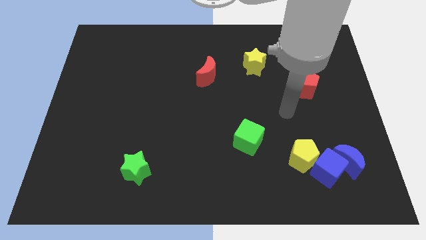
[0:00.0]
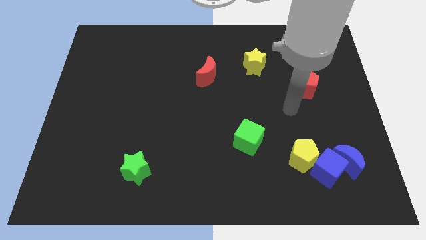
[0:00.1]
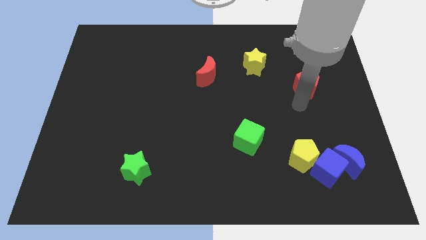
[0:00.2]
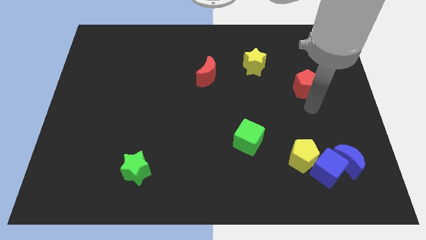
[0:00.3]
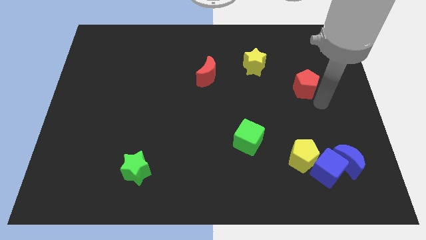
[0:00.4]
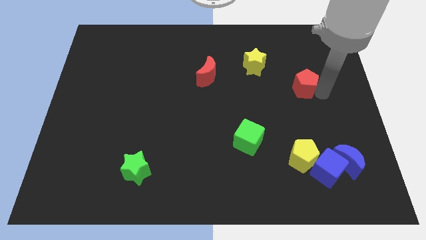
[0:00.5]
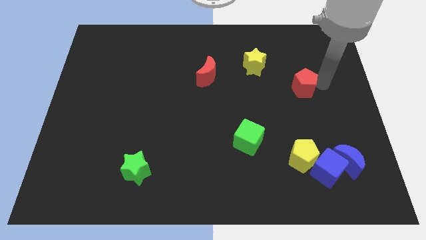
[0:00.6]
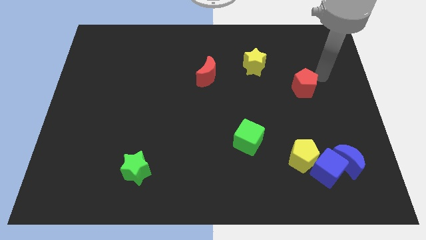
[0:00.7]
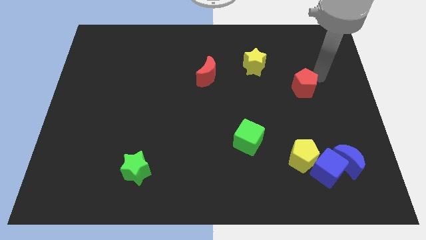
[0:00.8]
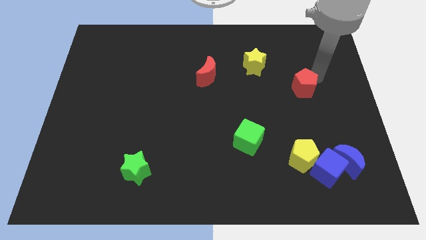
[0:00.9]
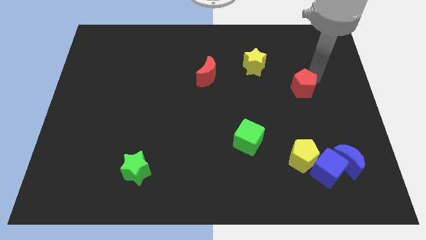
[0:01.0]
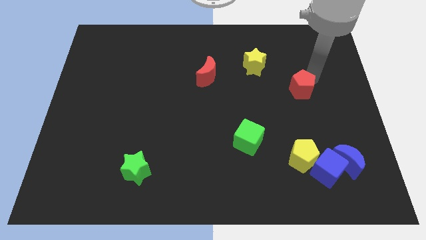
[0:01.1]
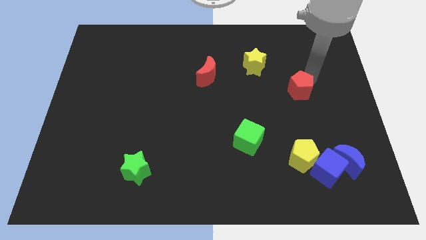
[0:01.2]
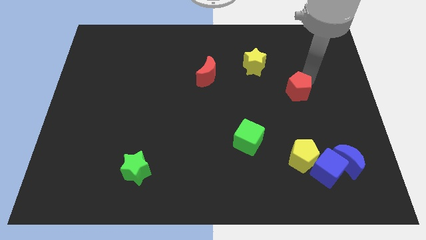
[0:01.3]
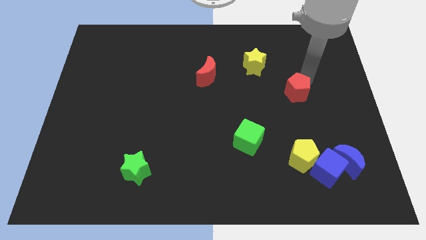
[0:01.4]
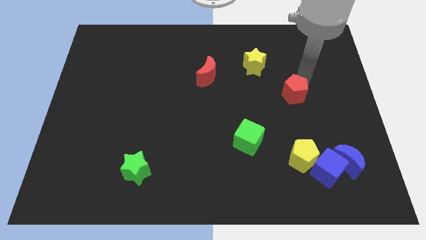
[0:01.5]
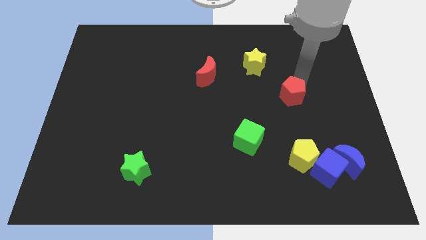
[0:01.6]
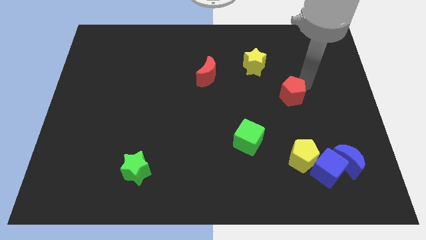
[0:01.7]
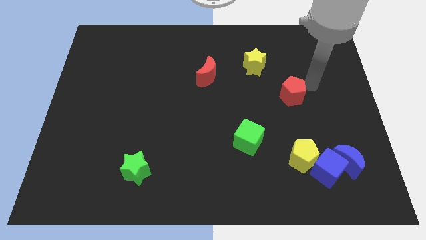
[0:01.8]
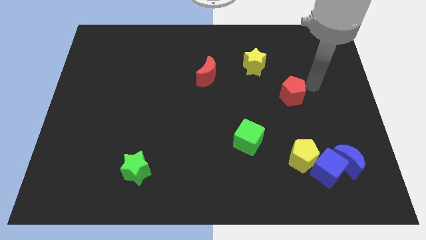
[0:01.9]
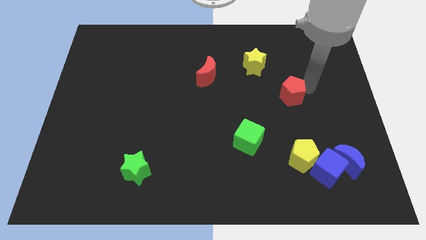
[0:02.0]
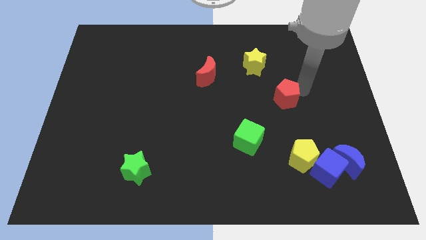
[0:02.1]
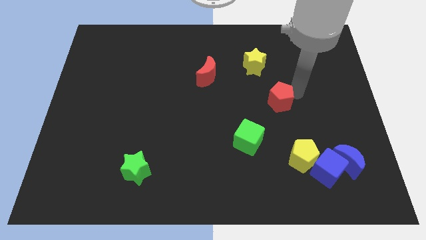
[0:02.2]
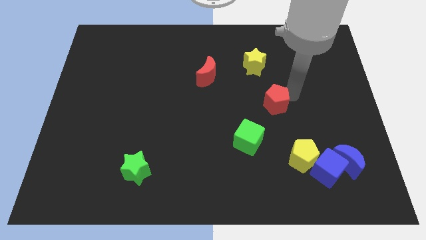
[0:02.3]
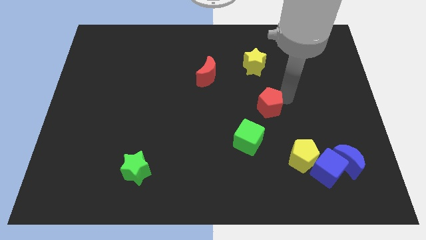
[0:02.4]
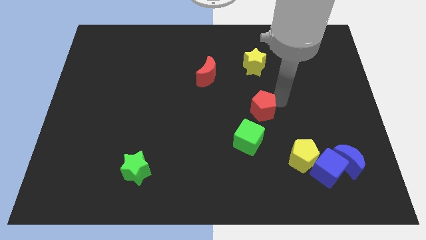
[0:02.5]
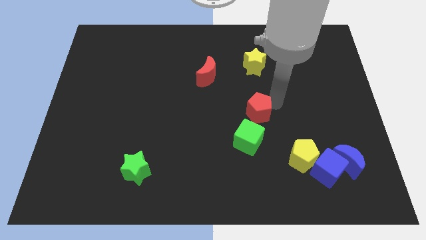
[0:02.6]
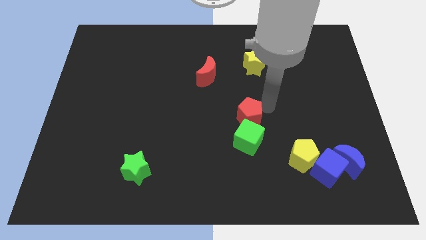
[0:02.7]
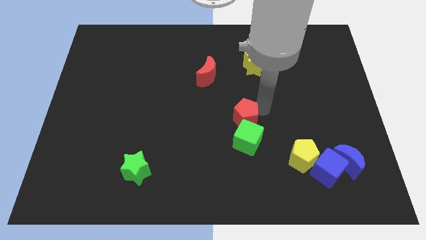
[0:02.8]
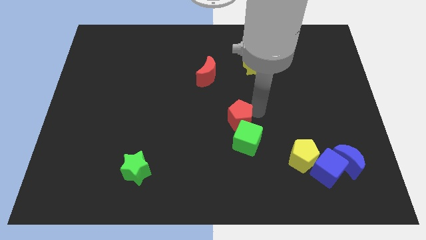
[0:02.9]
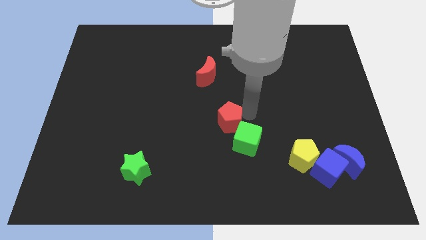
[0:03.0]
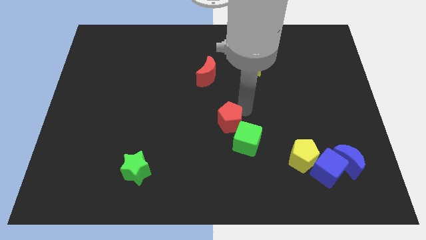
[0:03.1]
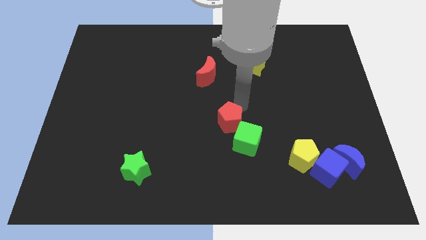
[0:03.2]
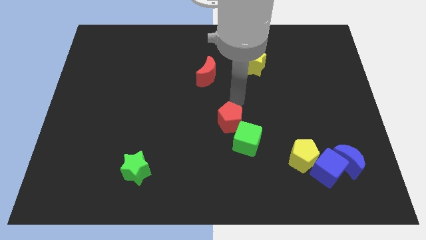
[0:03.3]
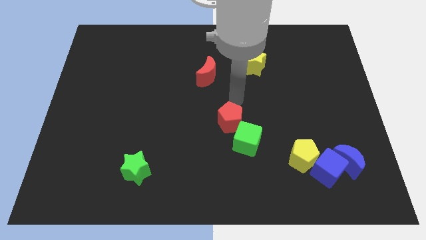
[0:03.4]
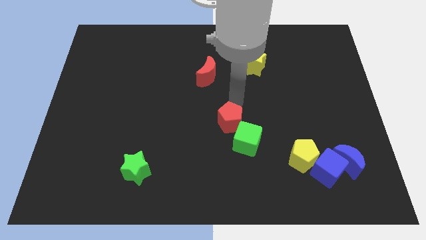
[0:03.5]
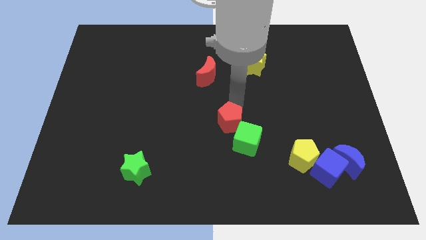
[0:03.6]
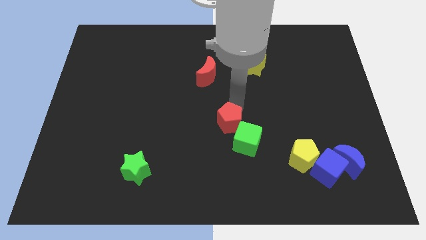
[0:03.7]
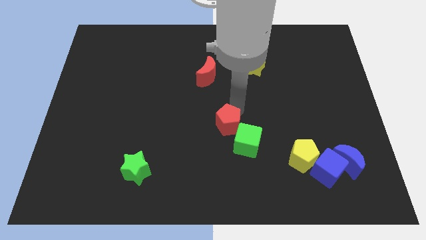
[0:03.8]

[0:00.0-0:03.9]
move the red pentagon downwards and to the left diagonally

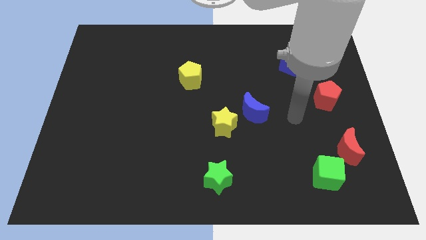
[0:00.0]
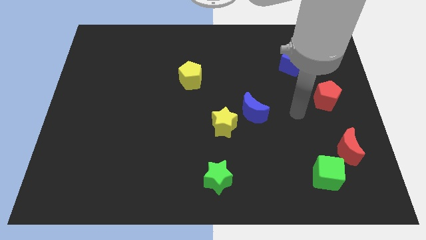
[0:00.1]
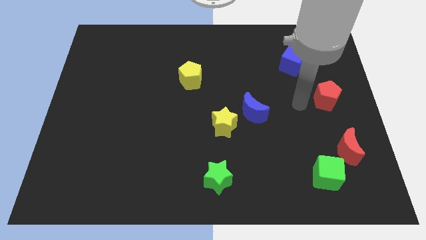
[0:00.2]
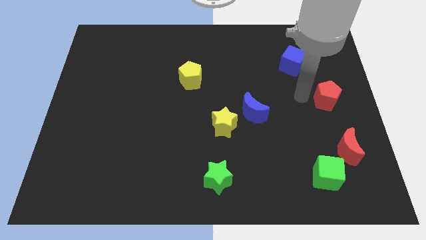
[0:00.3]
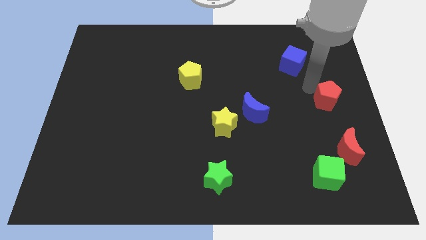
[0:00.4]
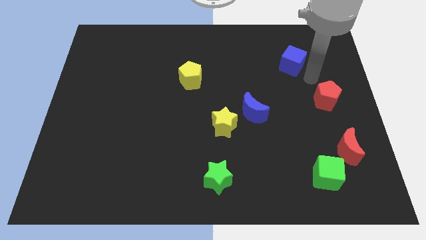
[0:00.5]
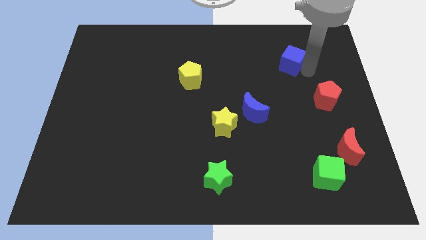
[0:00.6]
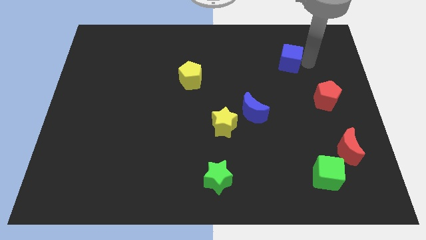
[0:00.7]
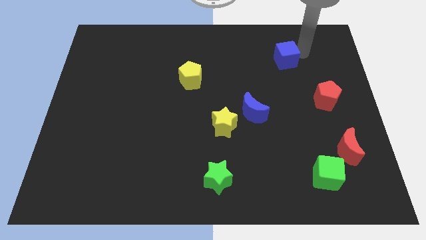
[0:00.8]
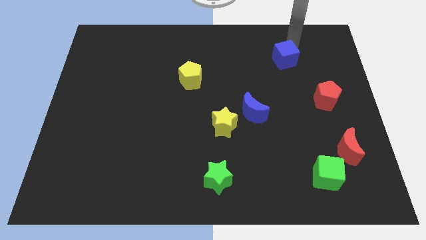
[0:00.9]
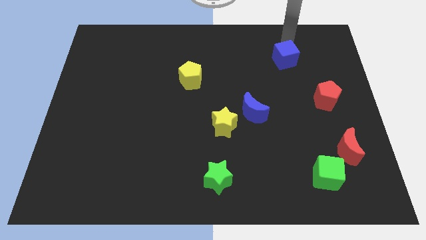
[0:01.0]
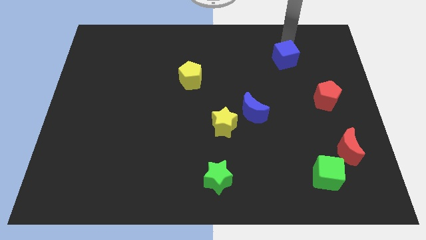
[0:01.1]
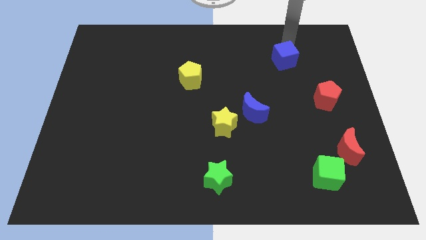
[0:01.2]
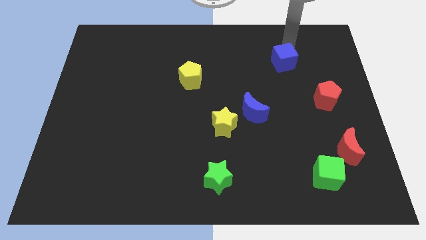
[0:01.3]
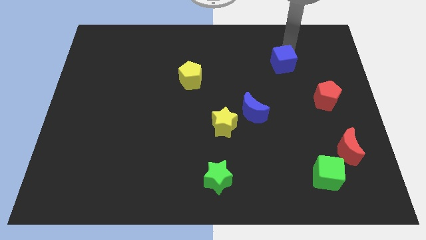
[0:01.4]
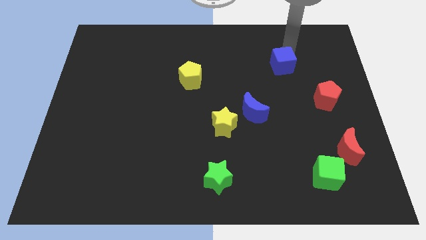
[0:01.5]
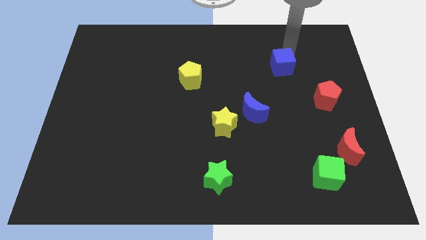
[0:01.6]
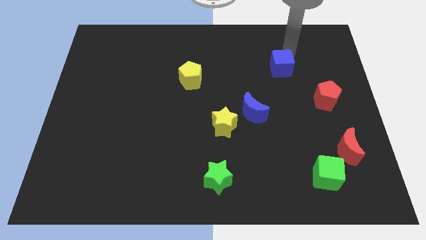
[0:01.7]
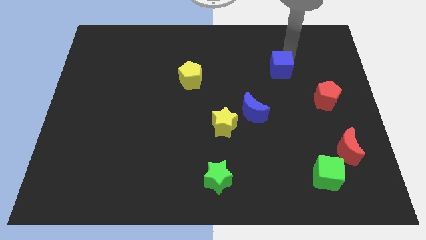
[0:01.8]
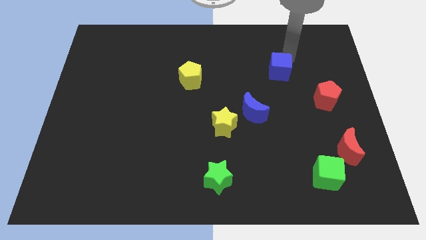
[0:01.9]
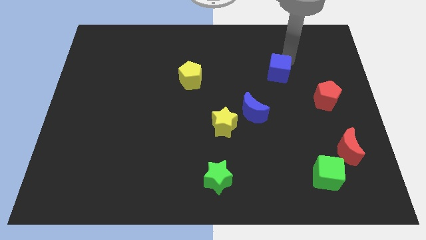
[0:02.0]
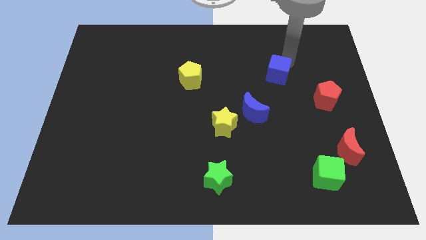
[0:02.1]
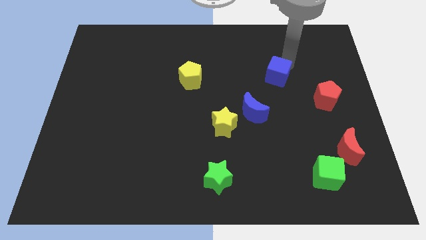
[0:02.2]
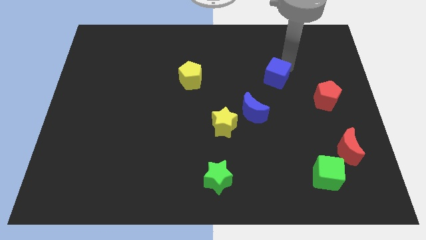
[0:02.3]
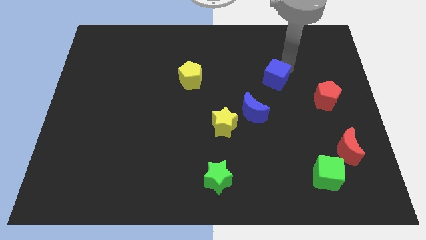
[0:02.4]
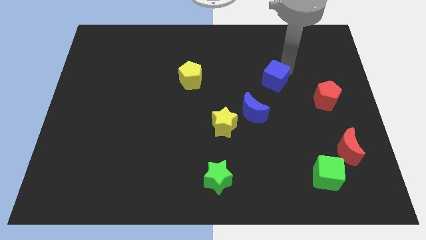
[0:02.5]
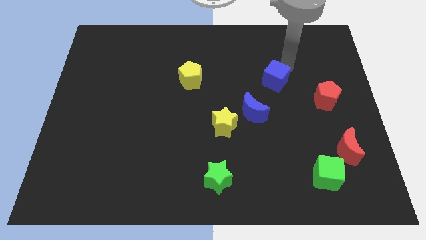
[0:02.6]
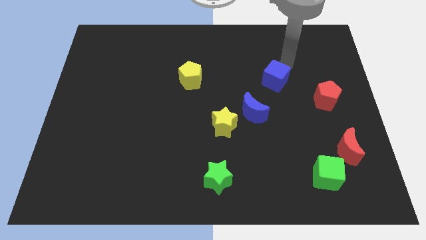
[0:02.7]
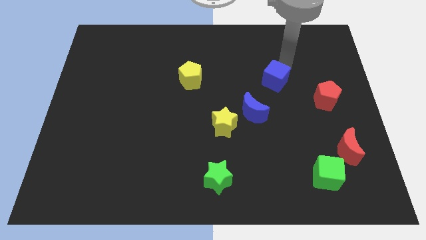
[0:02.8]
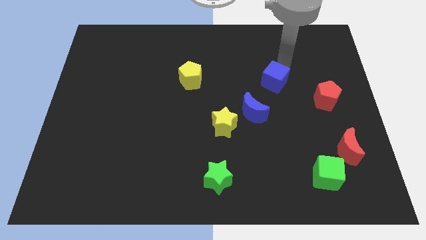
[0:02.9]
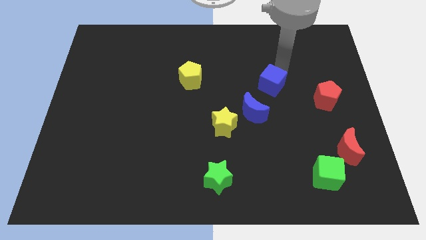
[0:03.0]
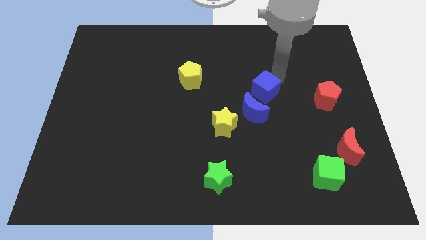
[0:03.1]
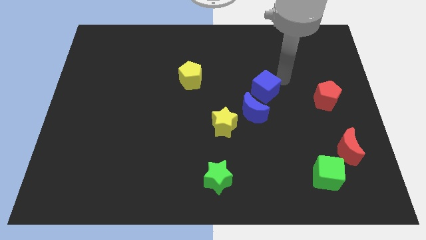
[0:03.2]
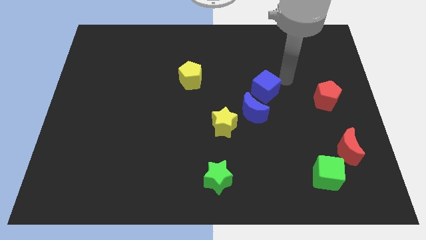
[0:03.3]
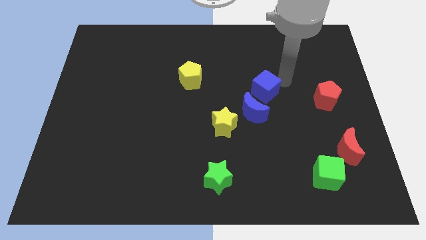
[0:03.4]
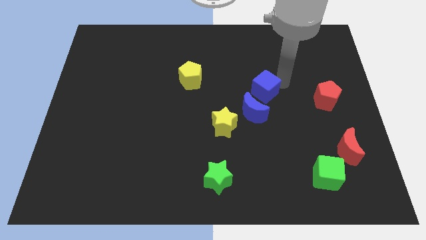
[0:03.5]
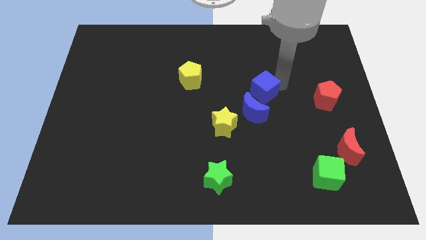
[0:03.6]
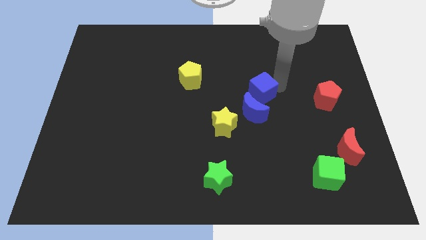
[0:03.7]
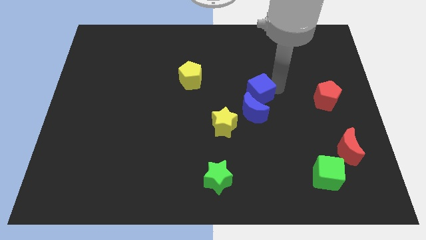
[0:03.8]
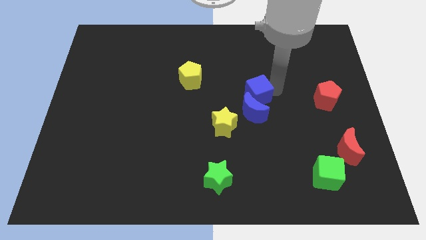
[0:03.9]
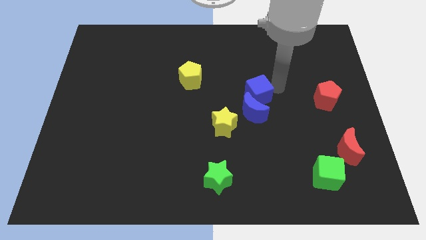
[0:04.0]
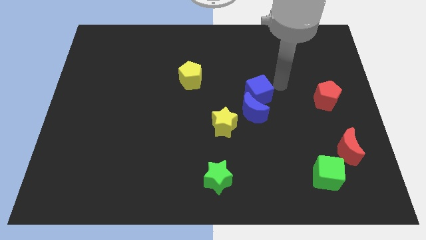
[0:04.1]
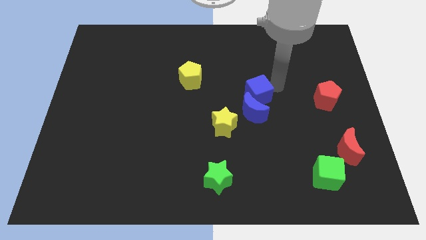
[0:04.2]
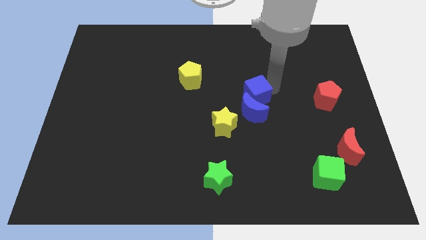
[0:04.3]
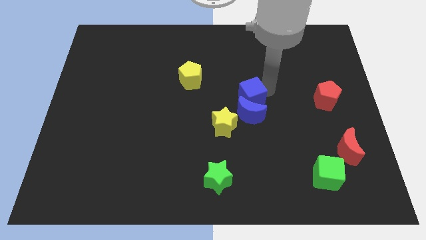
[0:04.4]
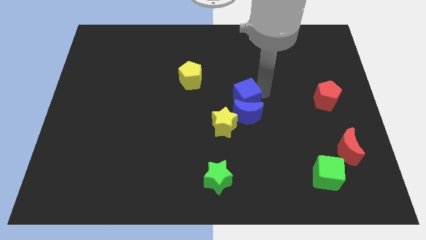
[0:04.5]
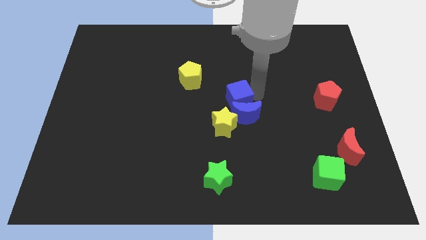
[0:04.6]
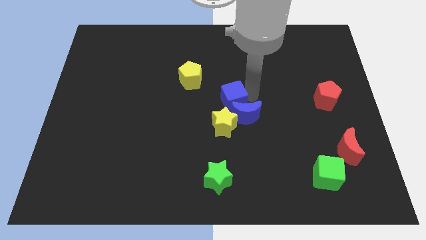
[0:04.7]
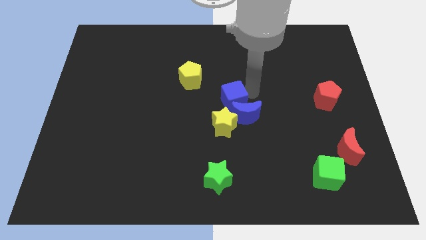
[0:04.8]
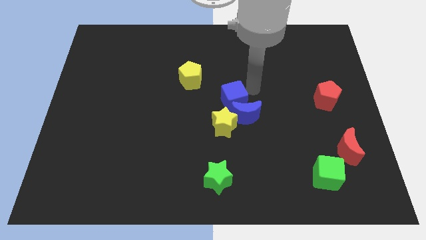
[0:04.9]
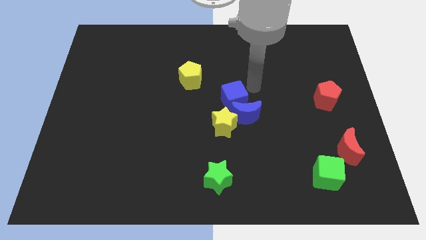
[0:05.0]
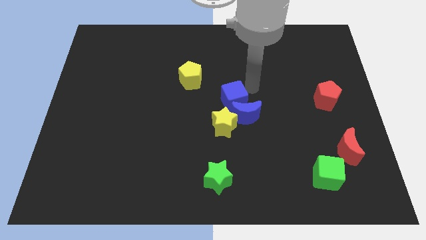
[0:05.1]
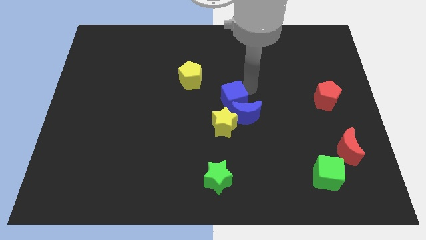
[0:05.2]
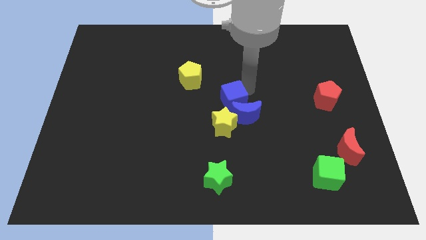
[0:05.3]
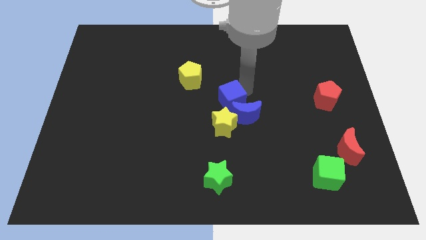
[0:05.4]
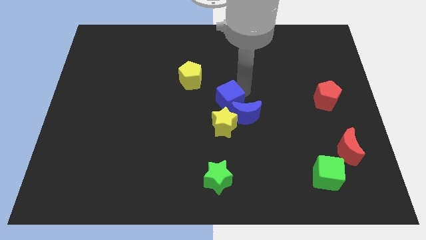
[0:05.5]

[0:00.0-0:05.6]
move the blue cube downwards and to the left diagonally
